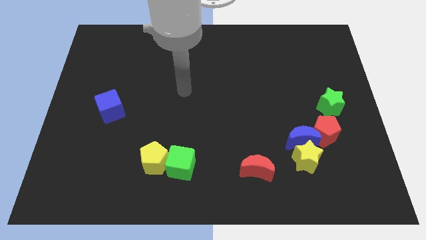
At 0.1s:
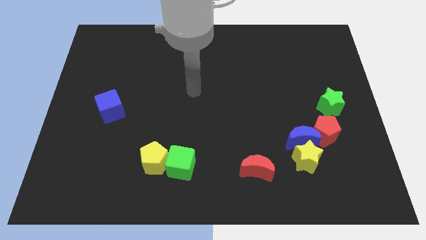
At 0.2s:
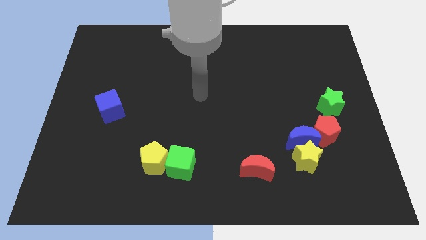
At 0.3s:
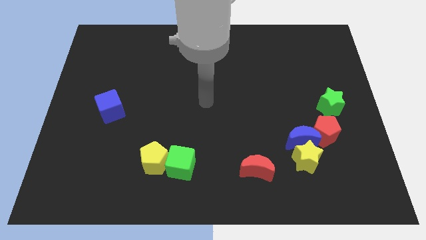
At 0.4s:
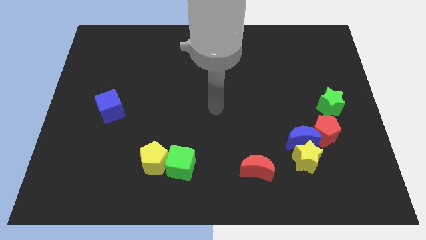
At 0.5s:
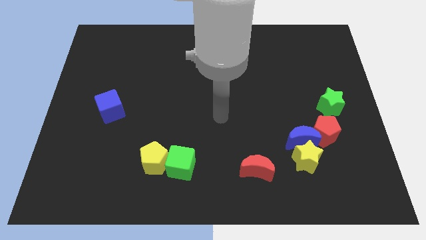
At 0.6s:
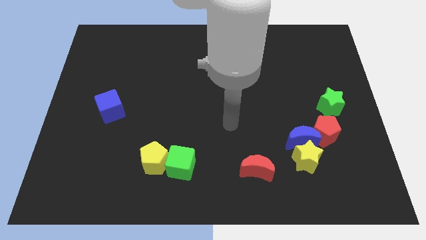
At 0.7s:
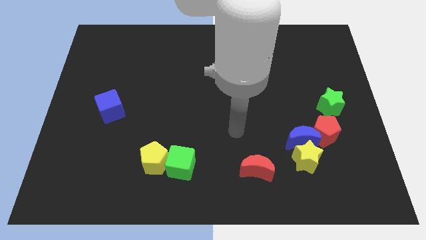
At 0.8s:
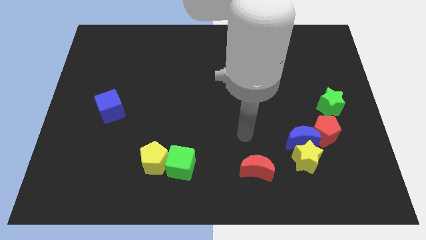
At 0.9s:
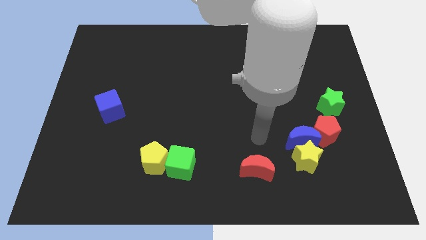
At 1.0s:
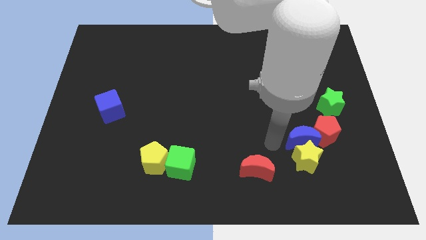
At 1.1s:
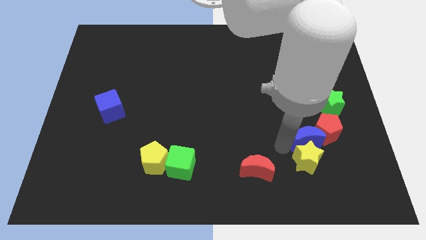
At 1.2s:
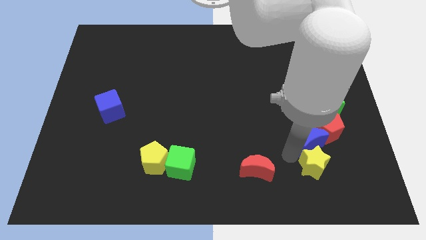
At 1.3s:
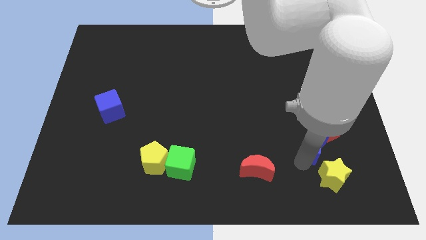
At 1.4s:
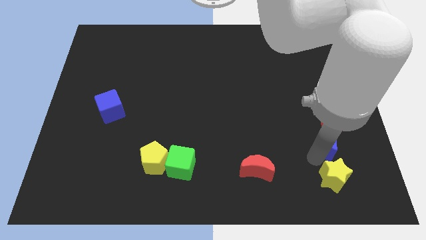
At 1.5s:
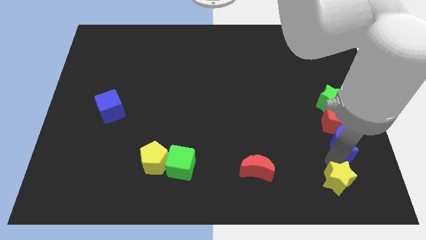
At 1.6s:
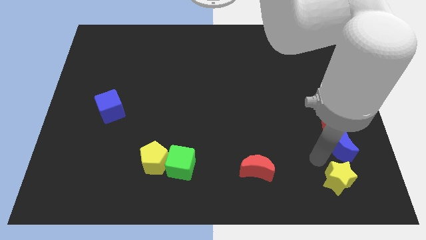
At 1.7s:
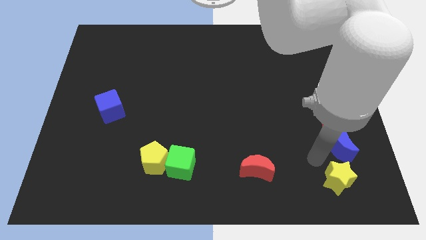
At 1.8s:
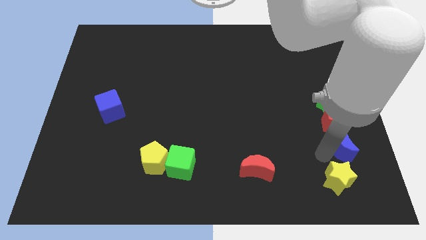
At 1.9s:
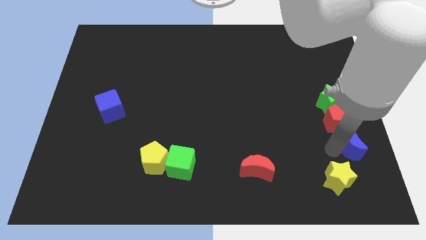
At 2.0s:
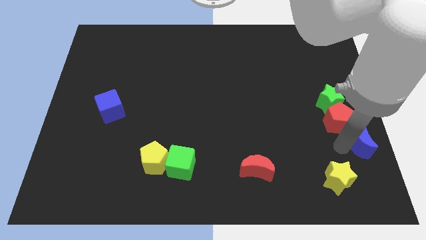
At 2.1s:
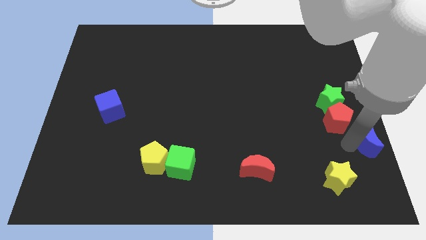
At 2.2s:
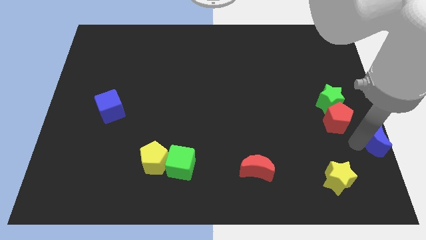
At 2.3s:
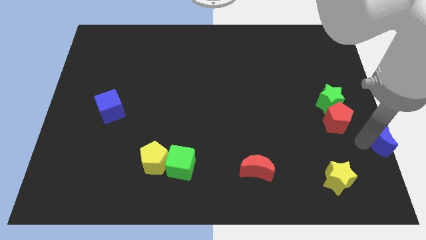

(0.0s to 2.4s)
separate the blue moon from the yellow star and red pentagon

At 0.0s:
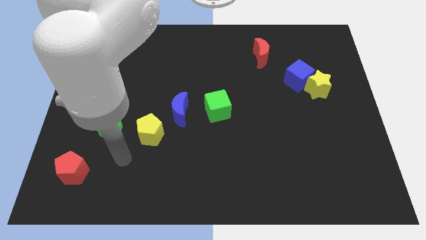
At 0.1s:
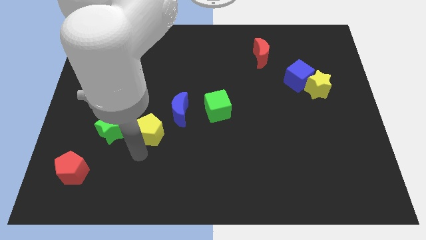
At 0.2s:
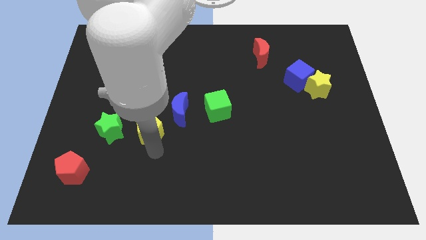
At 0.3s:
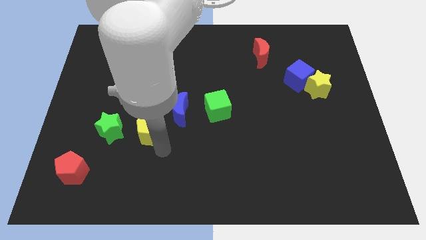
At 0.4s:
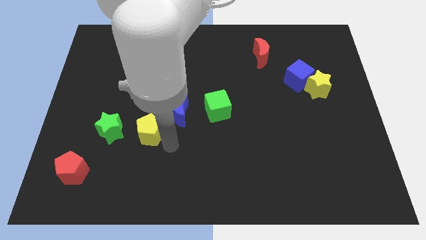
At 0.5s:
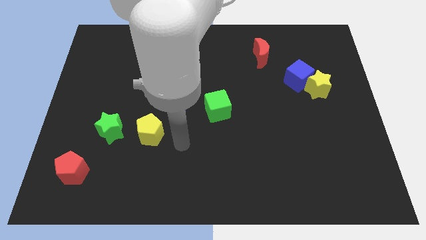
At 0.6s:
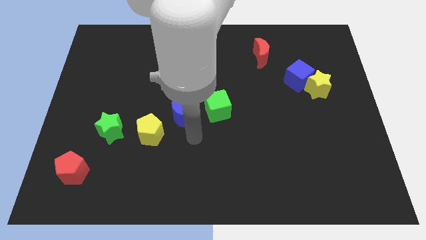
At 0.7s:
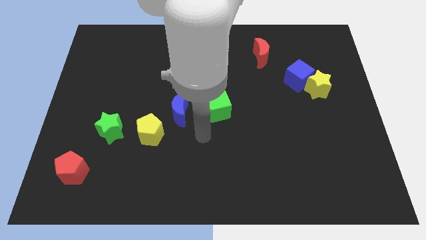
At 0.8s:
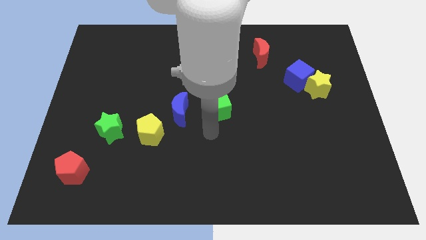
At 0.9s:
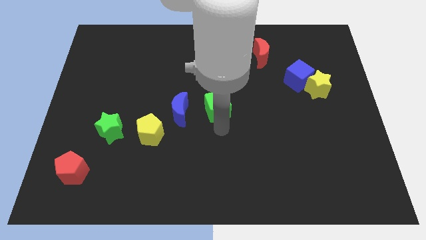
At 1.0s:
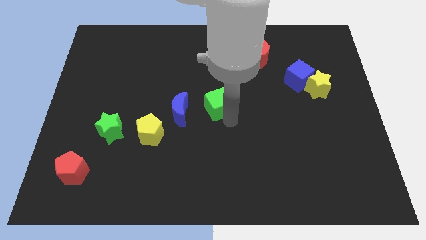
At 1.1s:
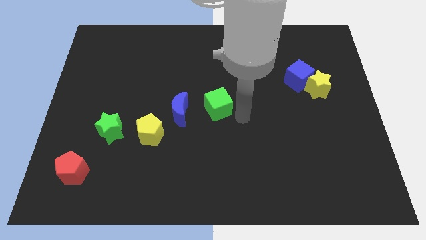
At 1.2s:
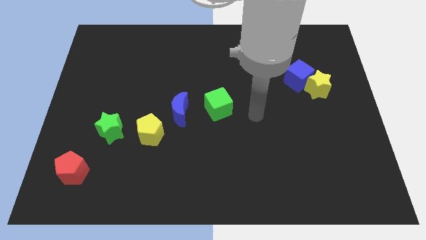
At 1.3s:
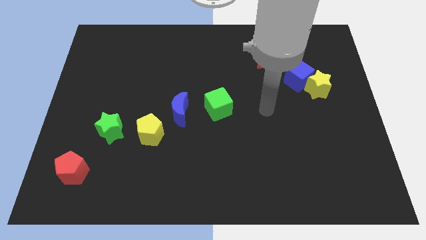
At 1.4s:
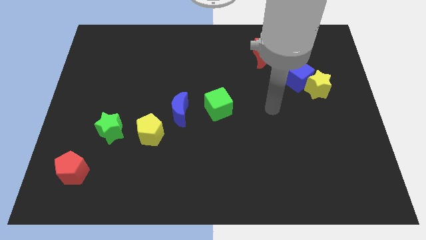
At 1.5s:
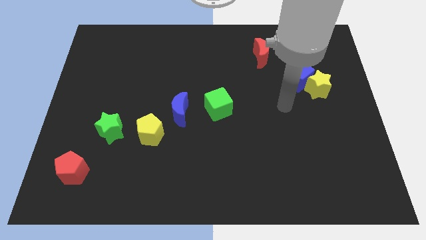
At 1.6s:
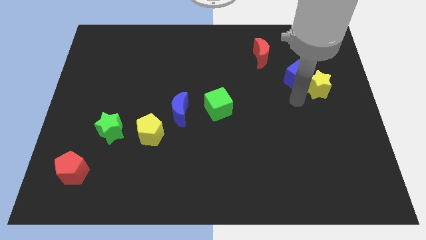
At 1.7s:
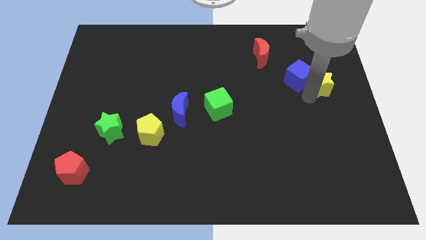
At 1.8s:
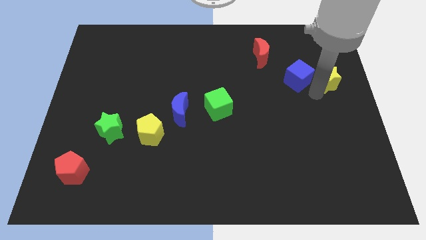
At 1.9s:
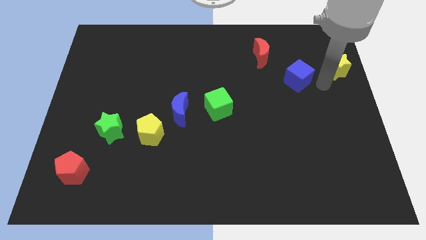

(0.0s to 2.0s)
separate the blue cube from the yellow star

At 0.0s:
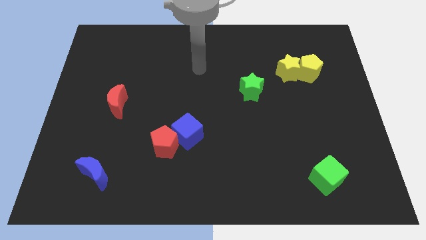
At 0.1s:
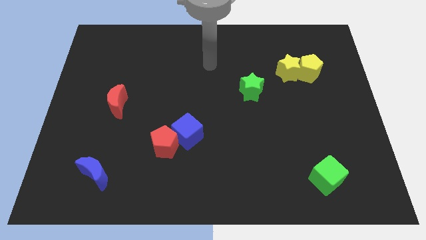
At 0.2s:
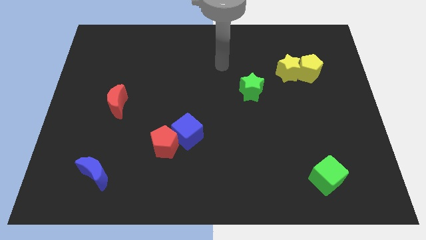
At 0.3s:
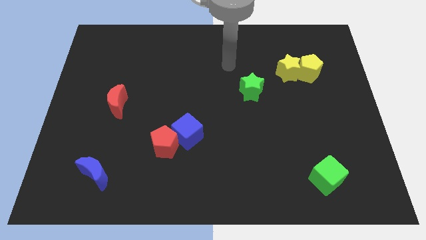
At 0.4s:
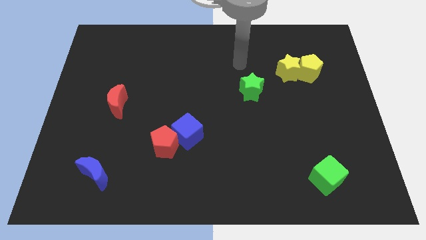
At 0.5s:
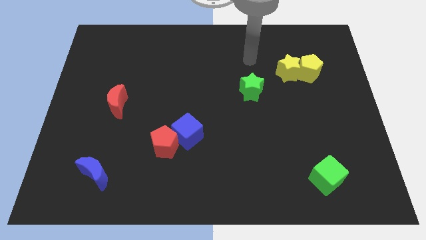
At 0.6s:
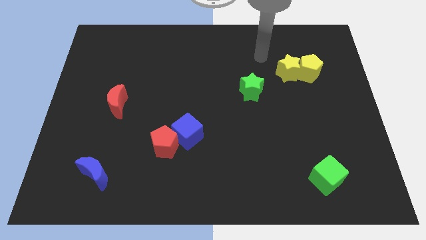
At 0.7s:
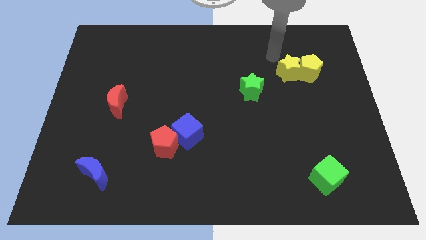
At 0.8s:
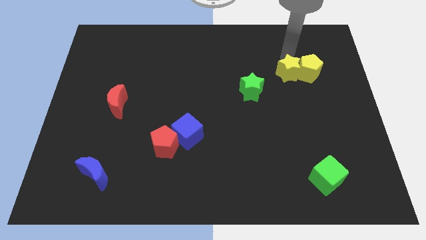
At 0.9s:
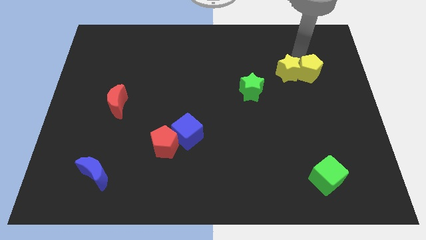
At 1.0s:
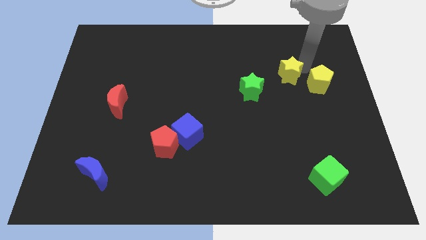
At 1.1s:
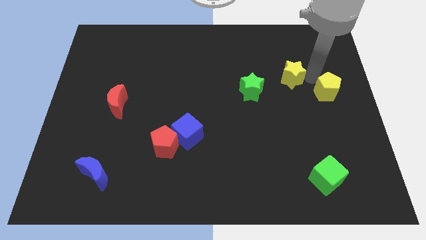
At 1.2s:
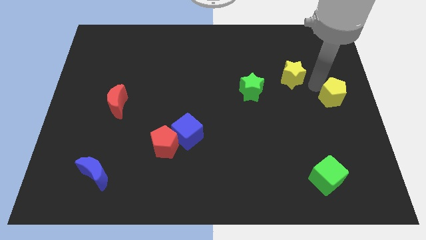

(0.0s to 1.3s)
move the yellow star away from the yellow pentagon

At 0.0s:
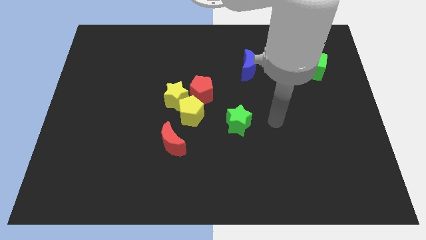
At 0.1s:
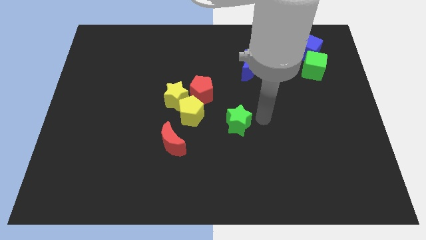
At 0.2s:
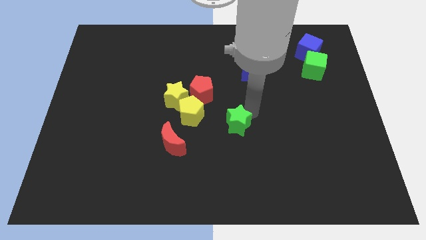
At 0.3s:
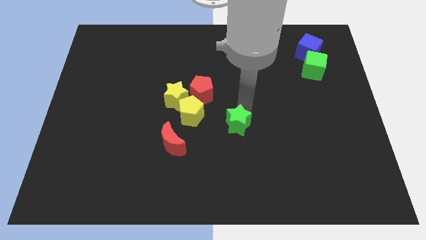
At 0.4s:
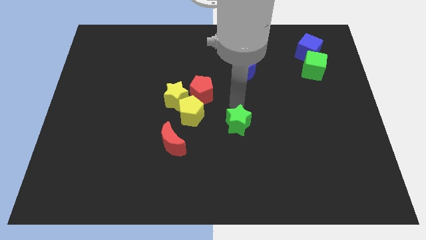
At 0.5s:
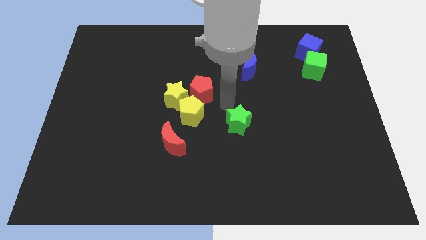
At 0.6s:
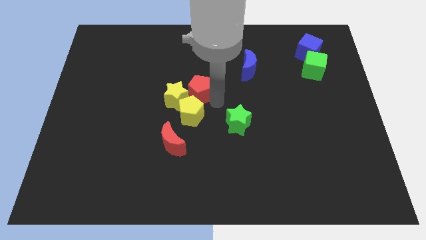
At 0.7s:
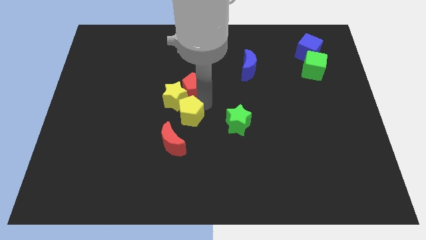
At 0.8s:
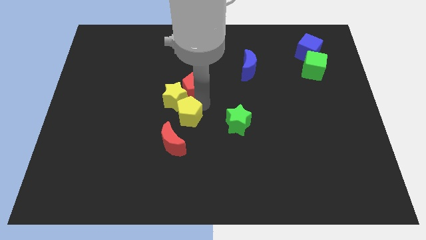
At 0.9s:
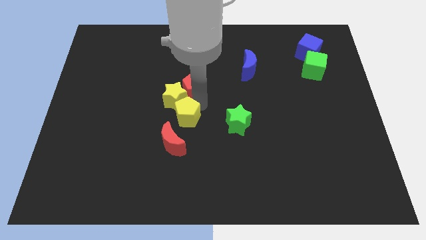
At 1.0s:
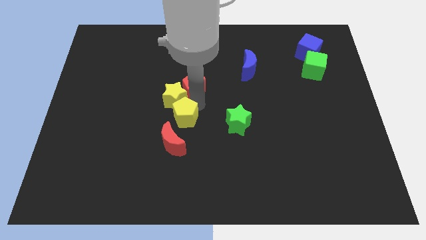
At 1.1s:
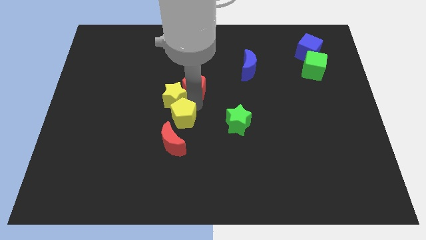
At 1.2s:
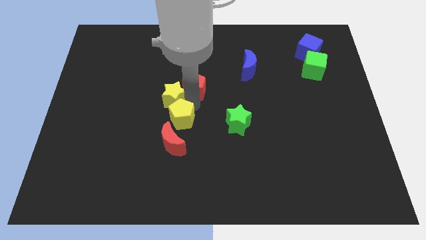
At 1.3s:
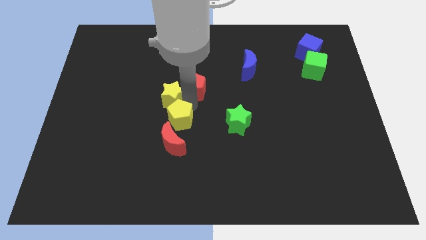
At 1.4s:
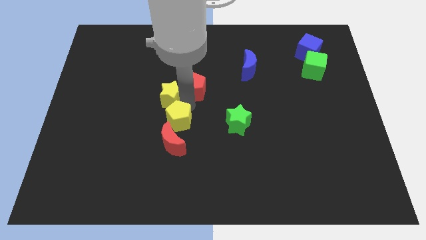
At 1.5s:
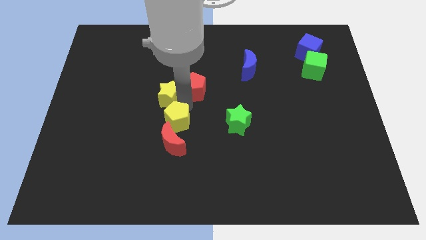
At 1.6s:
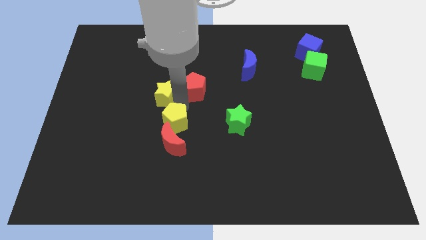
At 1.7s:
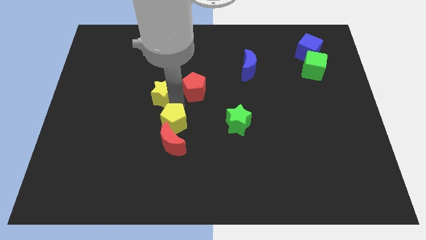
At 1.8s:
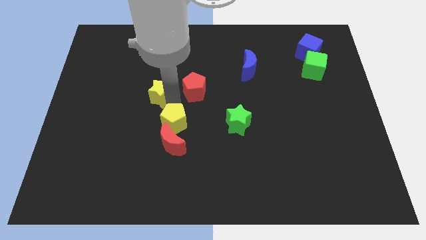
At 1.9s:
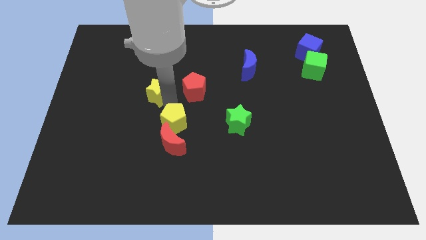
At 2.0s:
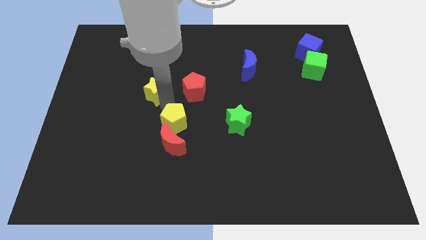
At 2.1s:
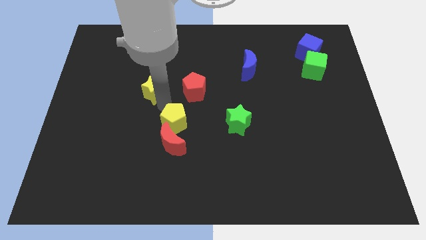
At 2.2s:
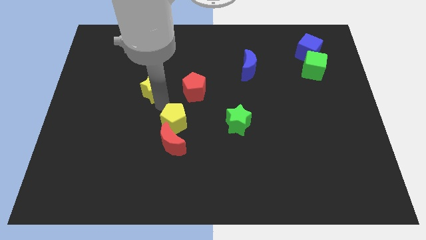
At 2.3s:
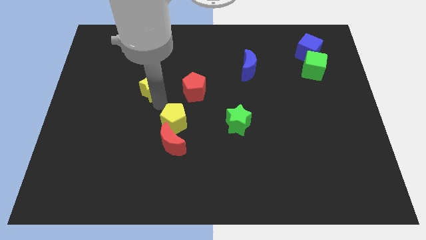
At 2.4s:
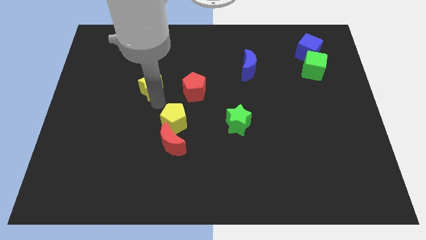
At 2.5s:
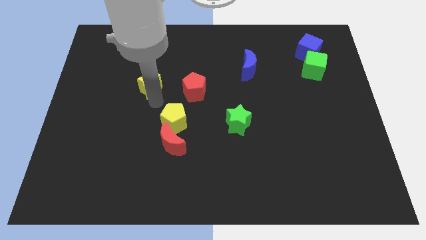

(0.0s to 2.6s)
pull the yellow star apart from the yellow pentagon and red pentagon

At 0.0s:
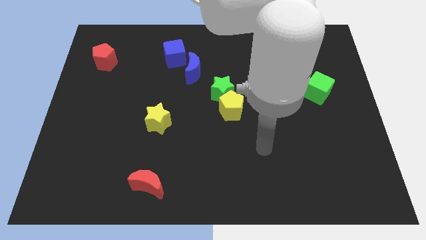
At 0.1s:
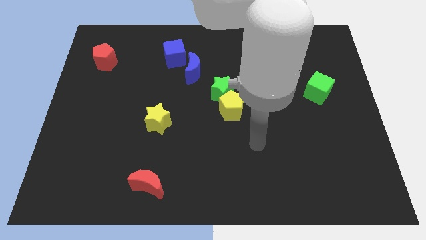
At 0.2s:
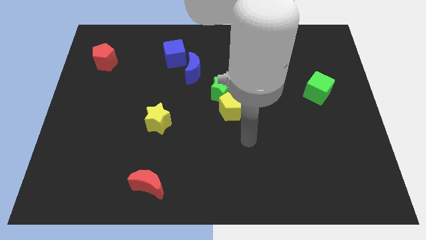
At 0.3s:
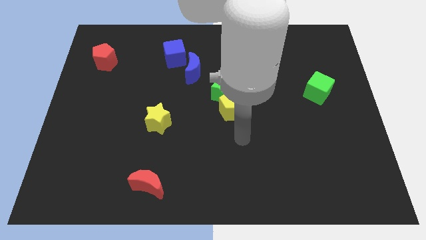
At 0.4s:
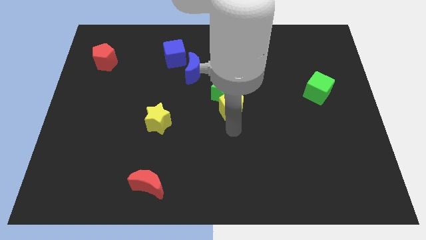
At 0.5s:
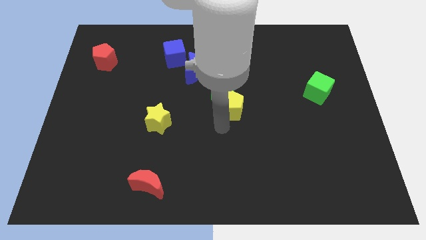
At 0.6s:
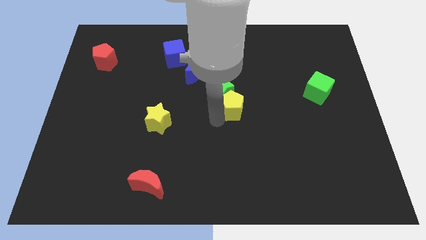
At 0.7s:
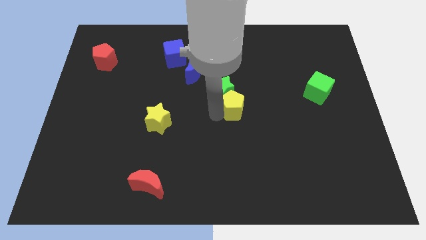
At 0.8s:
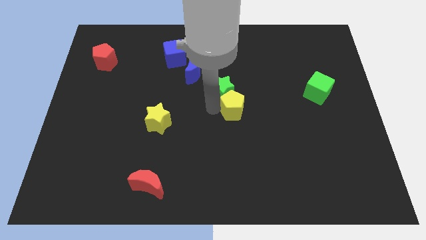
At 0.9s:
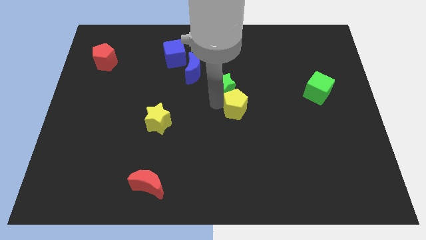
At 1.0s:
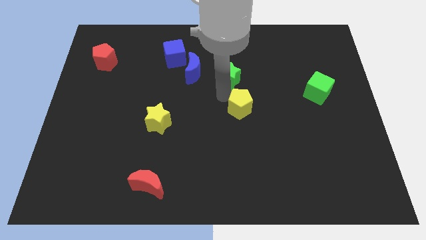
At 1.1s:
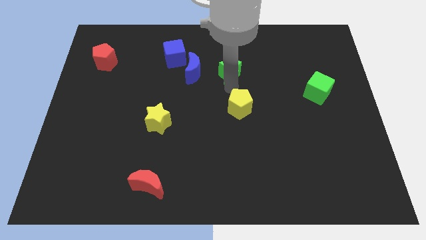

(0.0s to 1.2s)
move the yellow pentagon away from the green star
